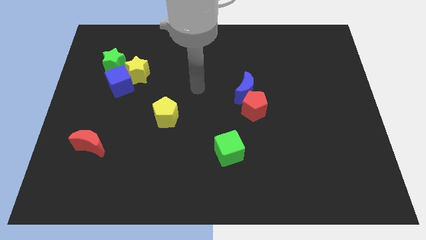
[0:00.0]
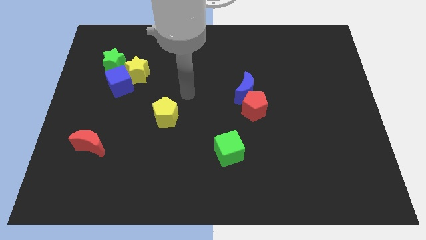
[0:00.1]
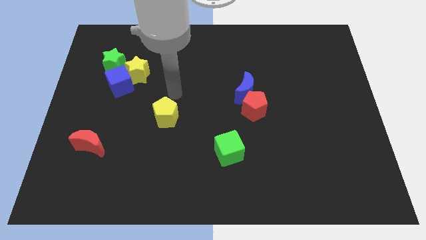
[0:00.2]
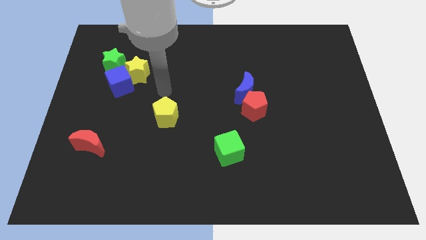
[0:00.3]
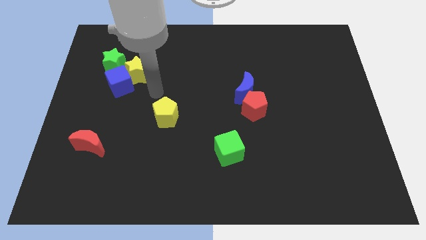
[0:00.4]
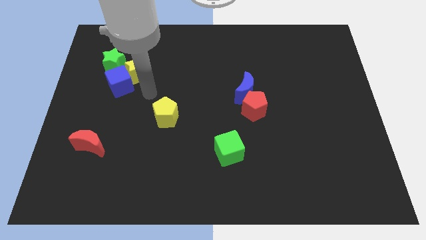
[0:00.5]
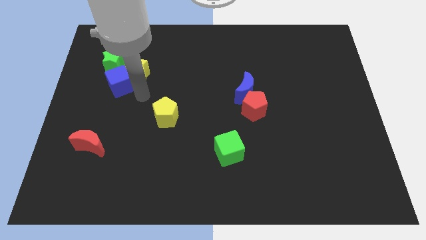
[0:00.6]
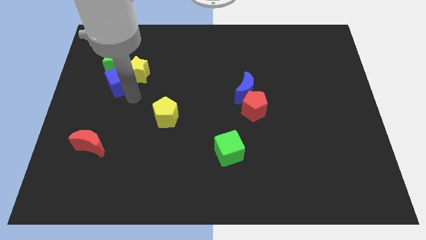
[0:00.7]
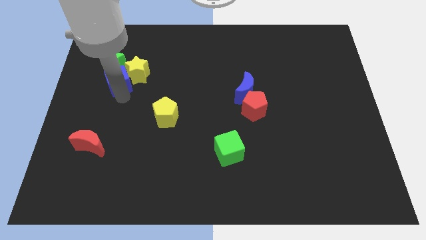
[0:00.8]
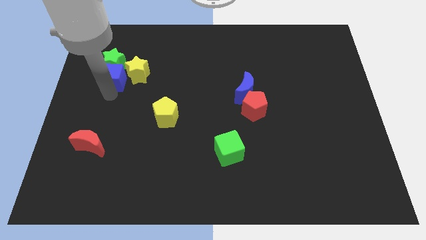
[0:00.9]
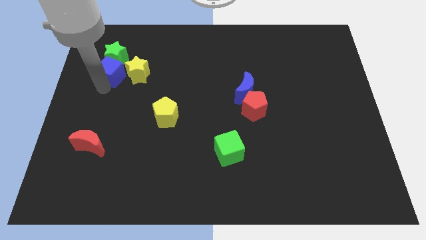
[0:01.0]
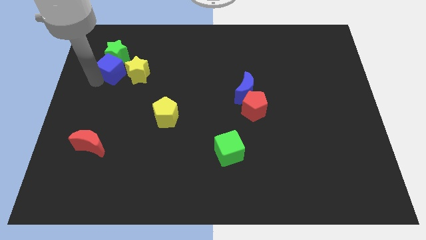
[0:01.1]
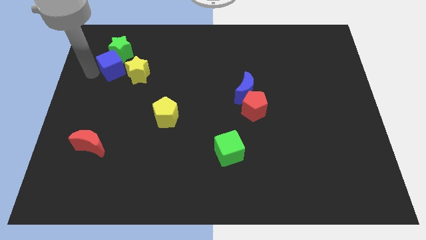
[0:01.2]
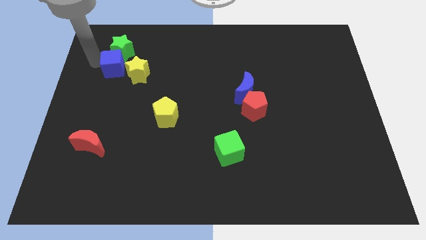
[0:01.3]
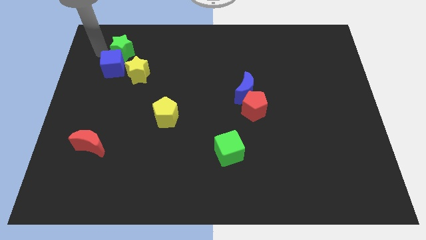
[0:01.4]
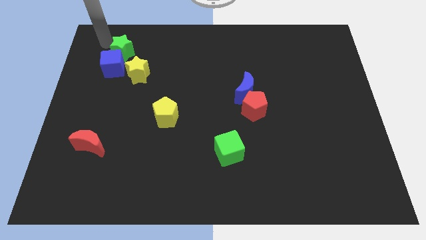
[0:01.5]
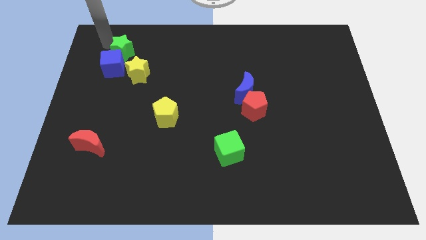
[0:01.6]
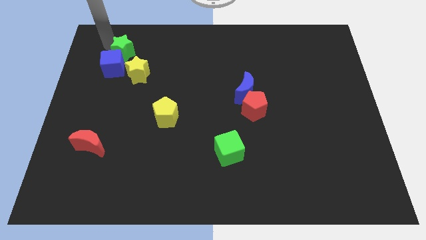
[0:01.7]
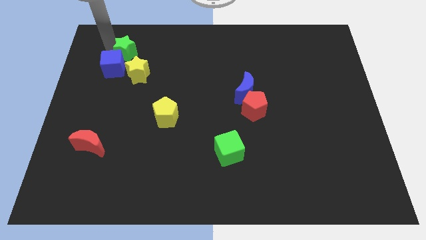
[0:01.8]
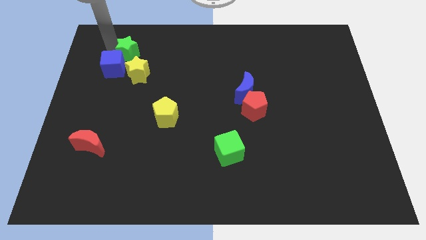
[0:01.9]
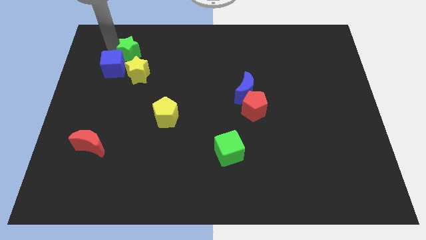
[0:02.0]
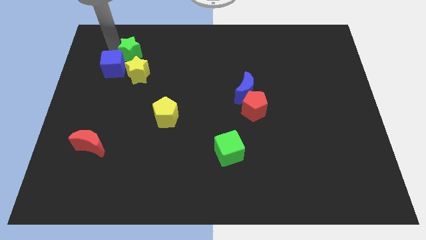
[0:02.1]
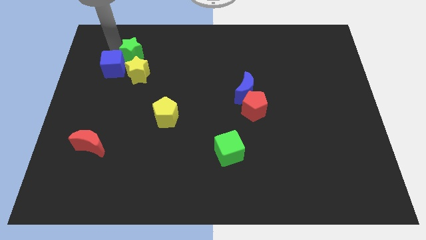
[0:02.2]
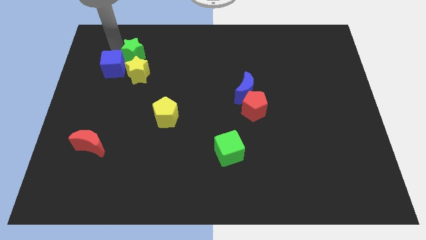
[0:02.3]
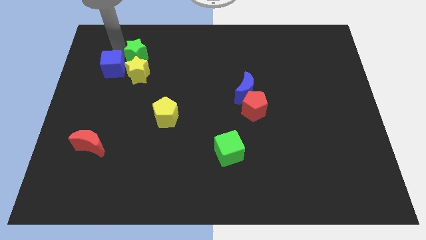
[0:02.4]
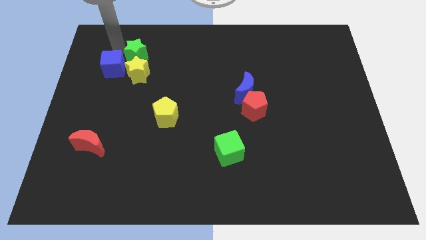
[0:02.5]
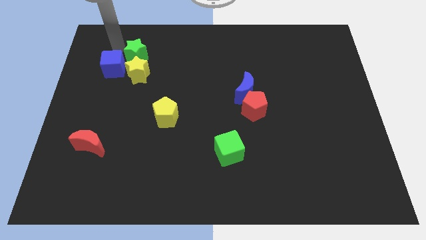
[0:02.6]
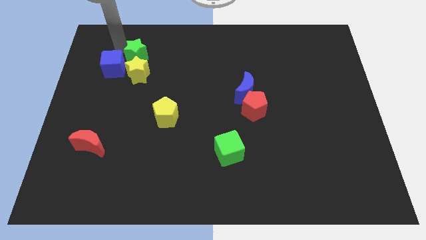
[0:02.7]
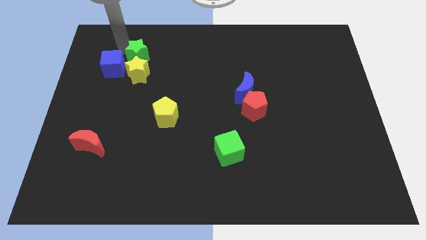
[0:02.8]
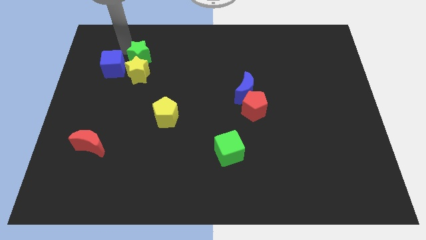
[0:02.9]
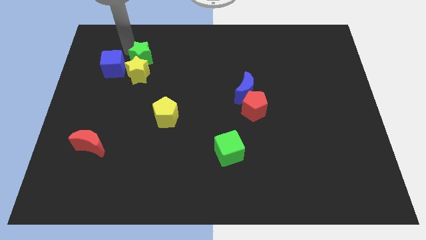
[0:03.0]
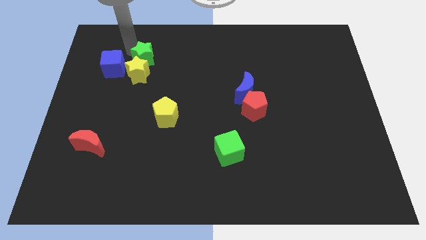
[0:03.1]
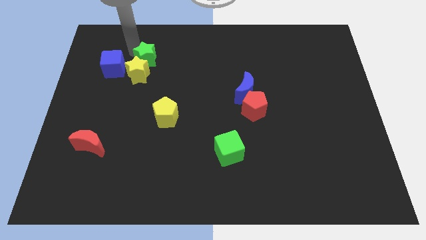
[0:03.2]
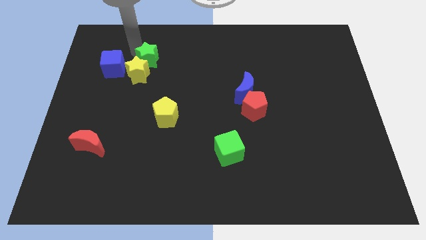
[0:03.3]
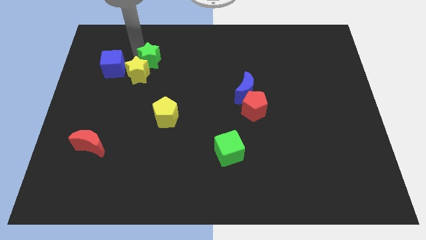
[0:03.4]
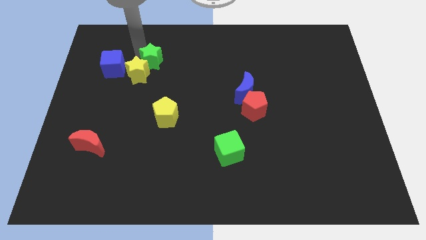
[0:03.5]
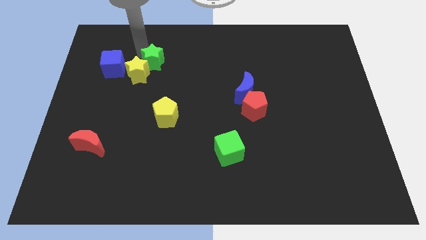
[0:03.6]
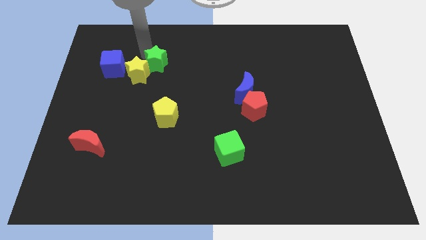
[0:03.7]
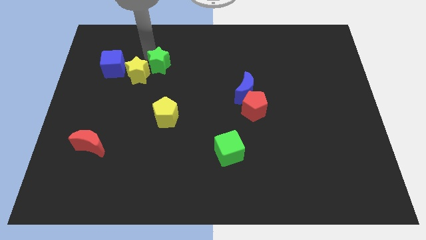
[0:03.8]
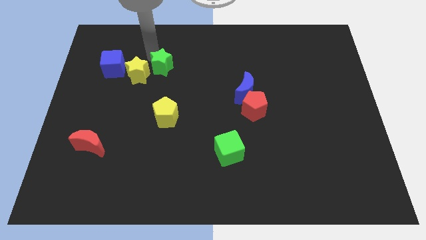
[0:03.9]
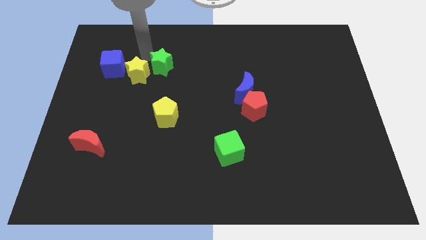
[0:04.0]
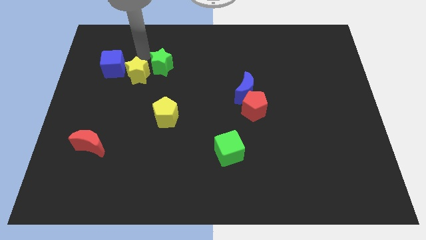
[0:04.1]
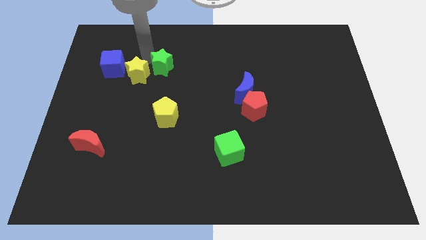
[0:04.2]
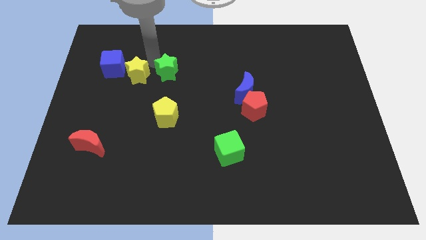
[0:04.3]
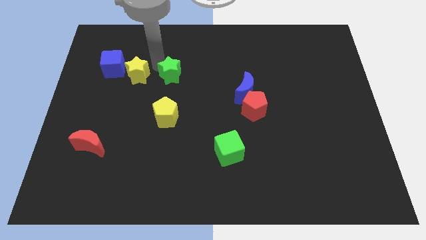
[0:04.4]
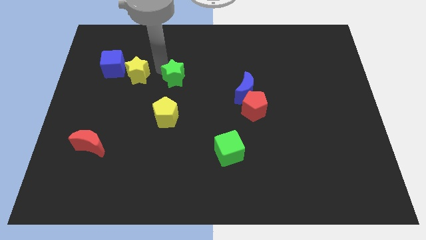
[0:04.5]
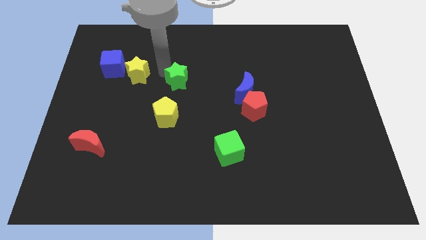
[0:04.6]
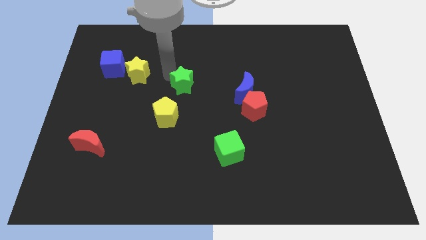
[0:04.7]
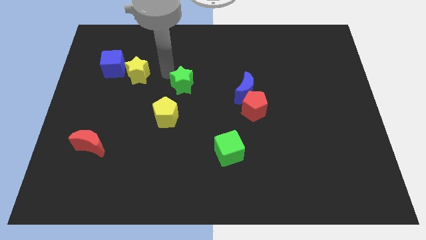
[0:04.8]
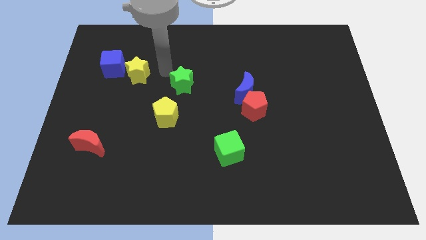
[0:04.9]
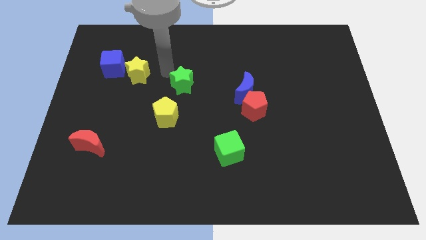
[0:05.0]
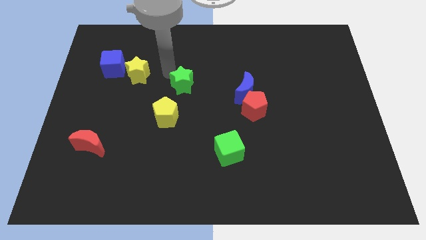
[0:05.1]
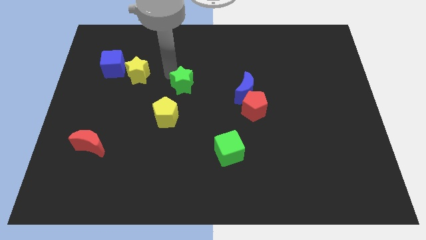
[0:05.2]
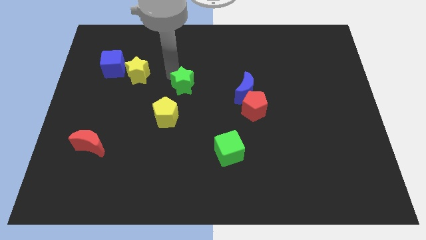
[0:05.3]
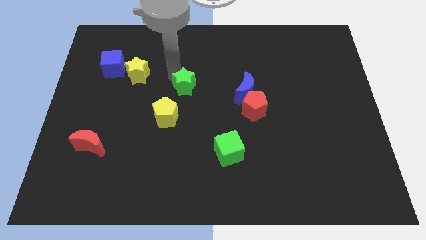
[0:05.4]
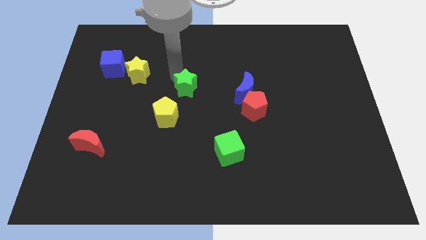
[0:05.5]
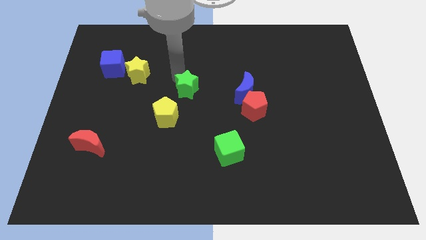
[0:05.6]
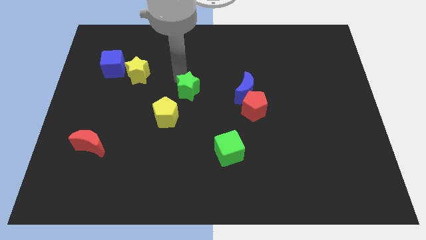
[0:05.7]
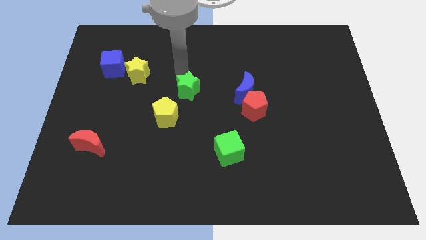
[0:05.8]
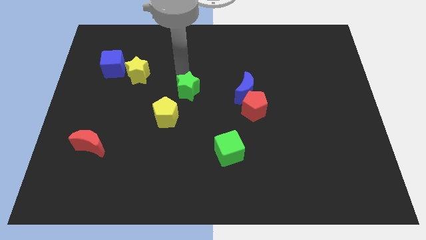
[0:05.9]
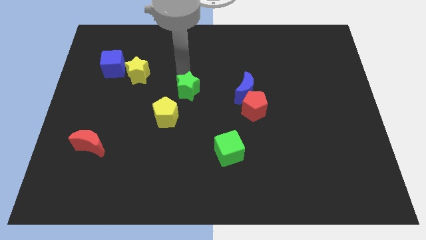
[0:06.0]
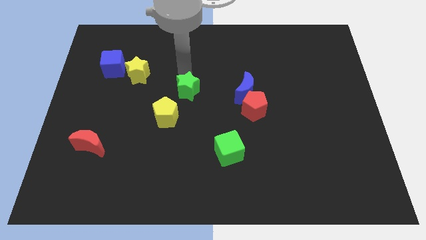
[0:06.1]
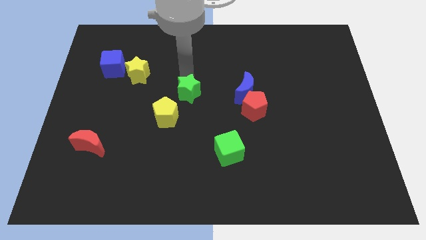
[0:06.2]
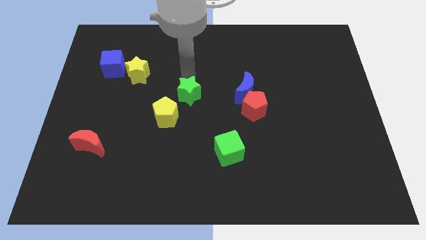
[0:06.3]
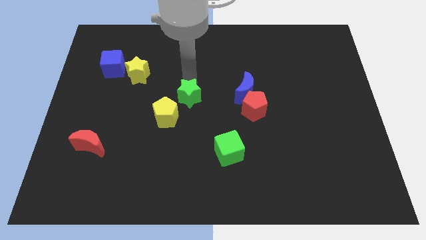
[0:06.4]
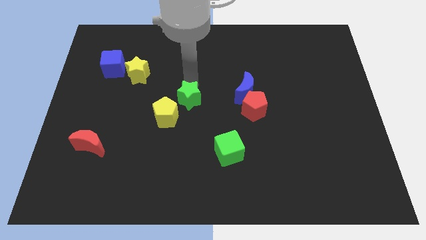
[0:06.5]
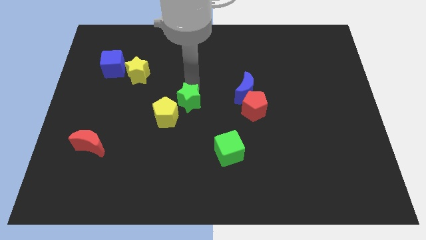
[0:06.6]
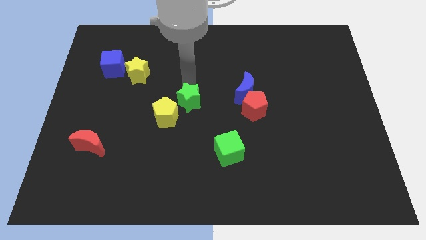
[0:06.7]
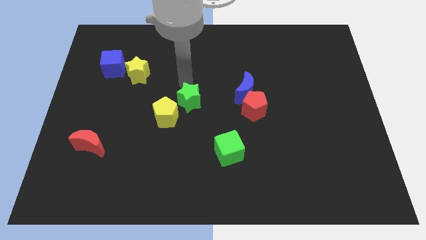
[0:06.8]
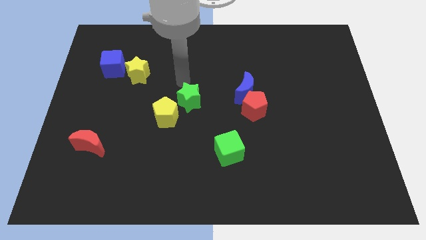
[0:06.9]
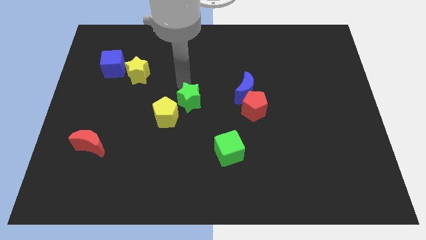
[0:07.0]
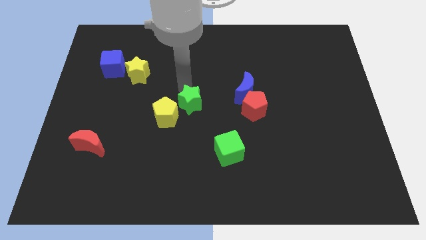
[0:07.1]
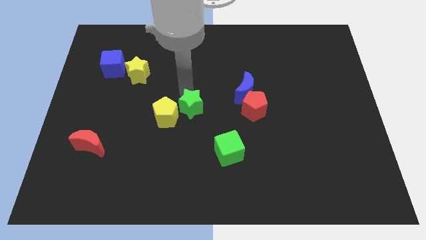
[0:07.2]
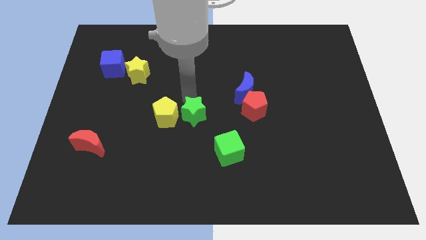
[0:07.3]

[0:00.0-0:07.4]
push the green star diagonally down and to the right of the yellow pentagon
